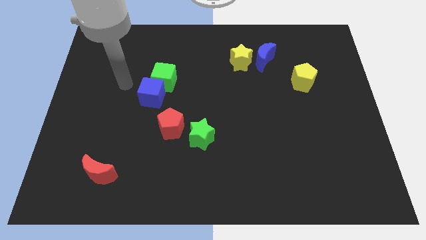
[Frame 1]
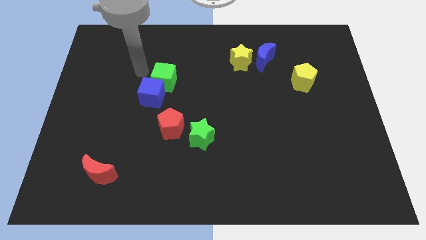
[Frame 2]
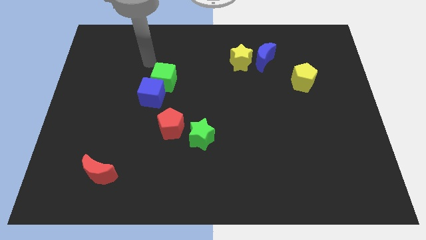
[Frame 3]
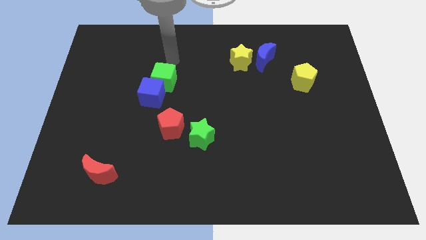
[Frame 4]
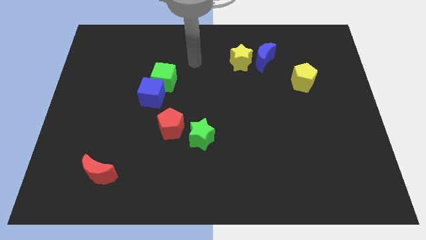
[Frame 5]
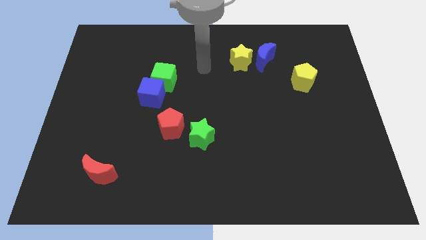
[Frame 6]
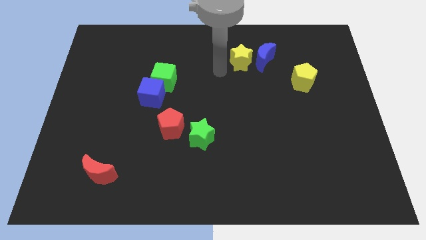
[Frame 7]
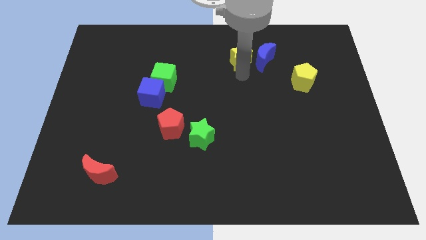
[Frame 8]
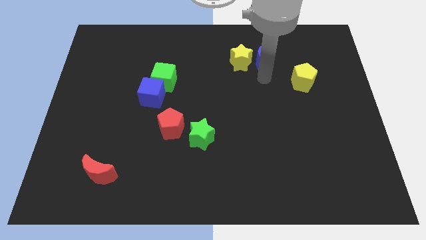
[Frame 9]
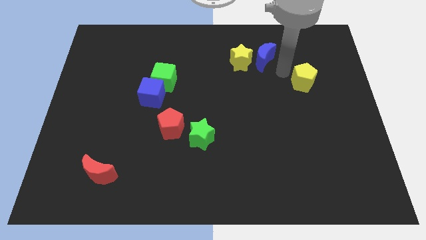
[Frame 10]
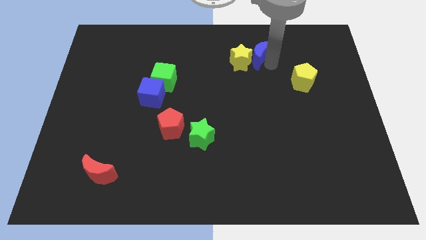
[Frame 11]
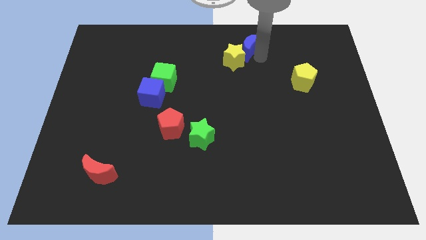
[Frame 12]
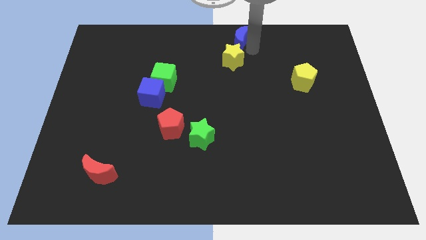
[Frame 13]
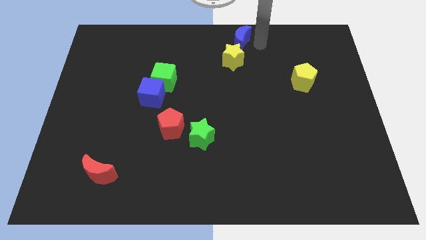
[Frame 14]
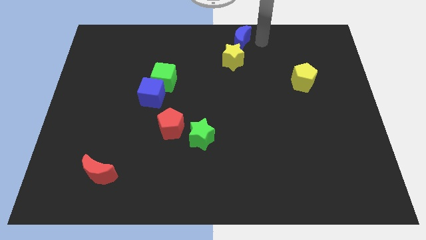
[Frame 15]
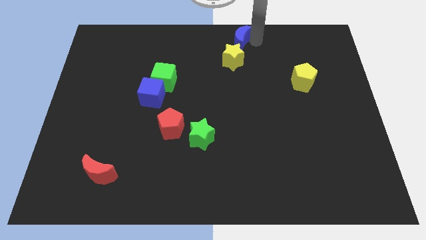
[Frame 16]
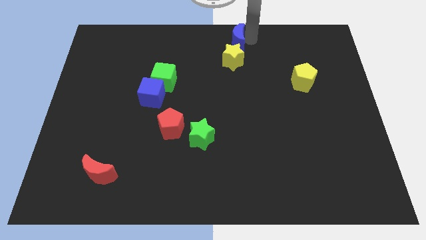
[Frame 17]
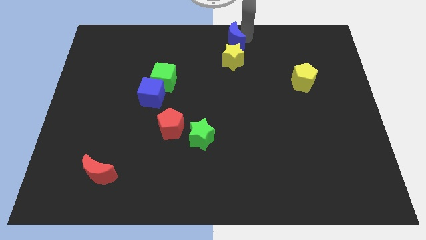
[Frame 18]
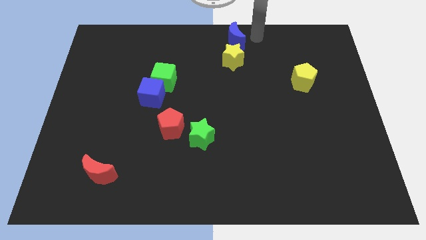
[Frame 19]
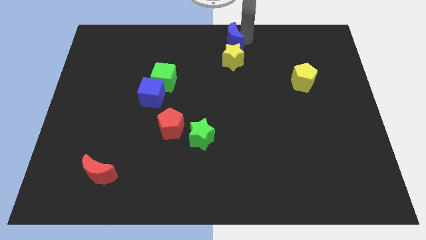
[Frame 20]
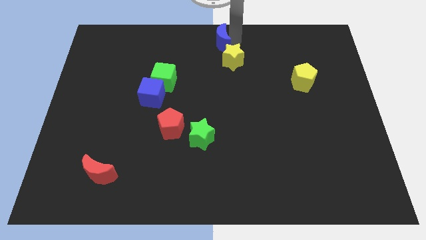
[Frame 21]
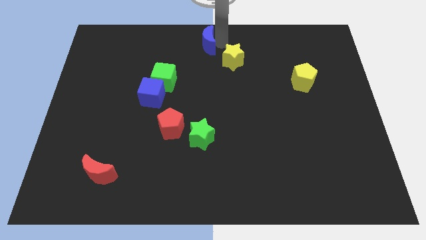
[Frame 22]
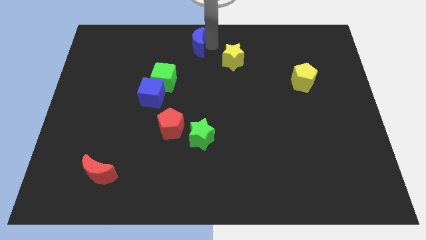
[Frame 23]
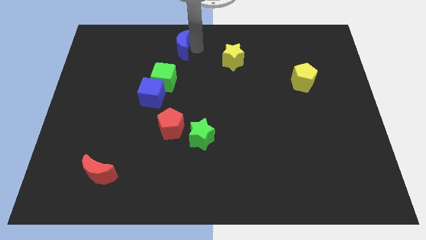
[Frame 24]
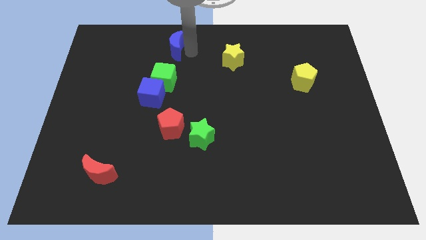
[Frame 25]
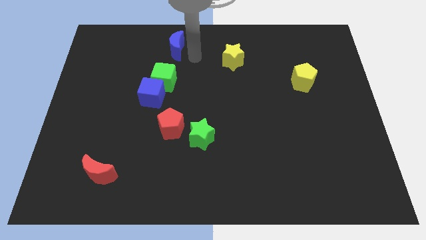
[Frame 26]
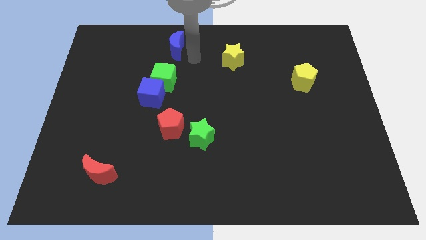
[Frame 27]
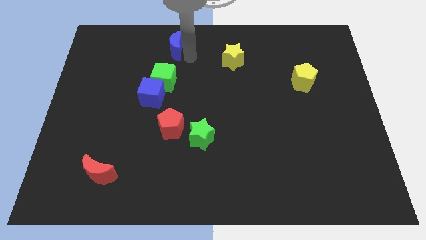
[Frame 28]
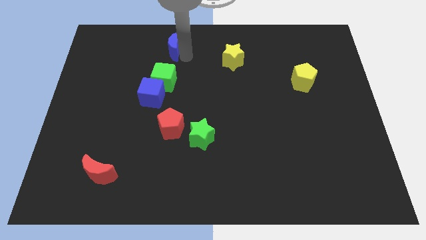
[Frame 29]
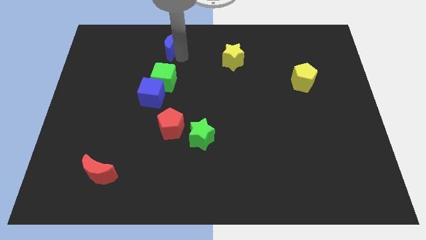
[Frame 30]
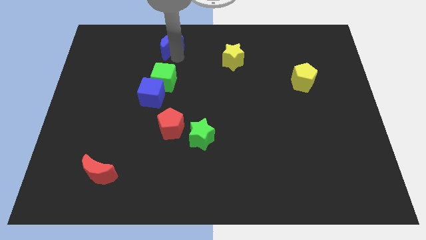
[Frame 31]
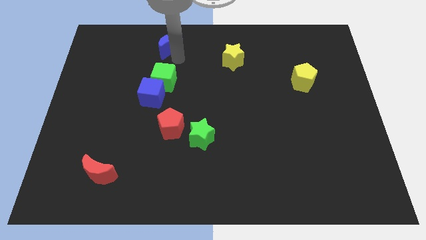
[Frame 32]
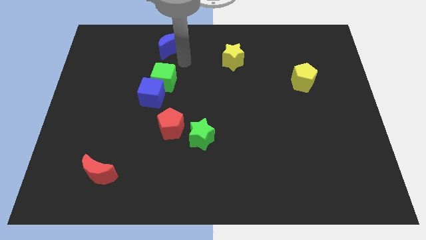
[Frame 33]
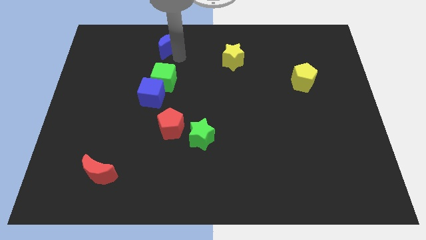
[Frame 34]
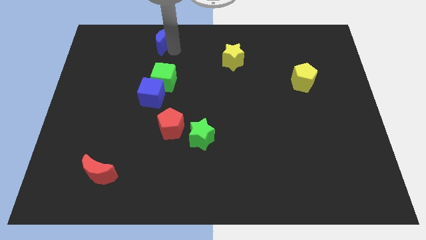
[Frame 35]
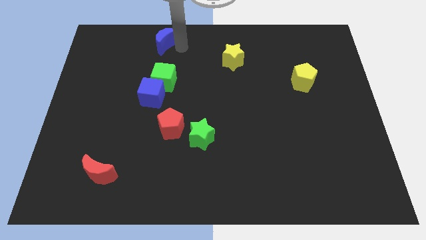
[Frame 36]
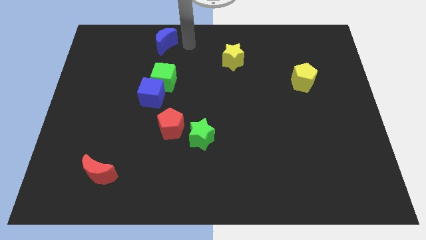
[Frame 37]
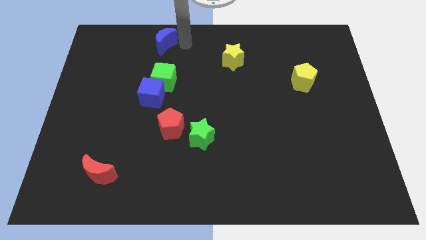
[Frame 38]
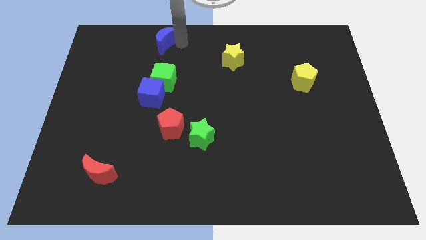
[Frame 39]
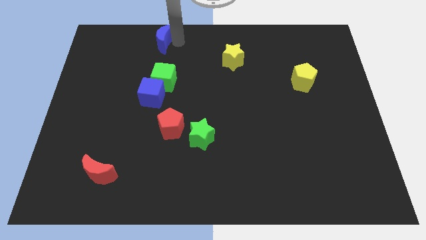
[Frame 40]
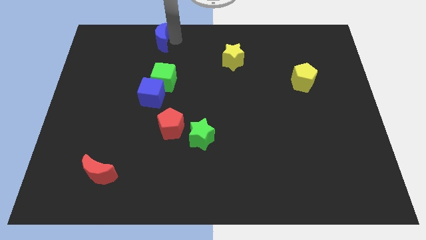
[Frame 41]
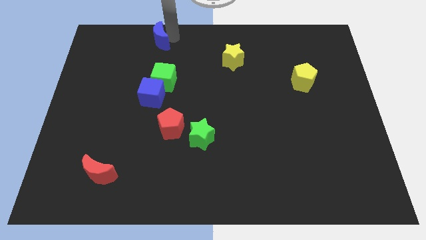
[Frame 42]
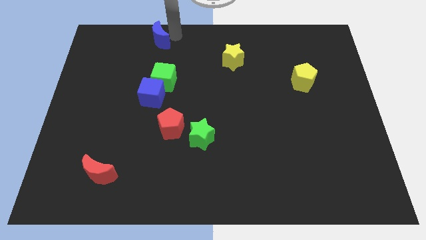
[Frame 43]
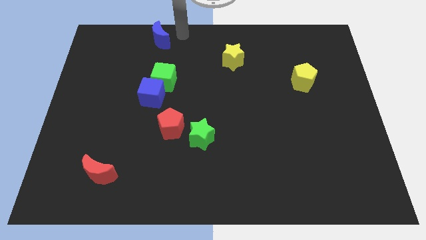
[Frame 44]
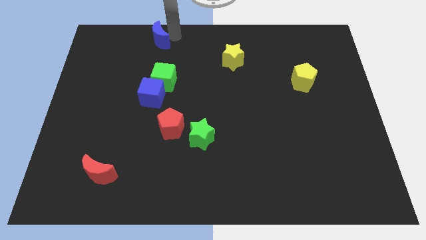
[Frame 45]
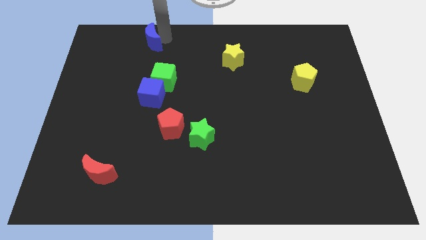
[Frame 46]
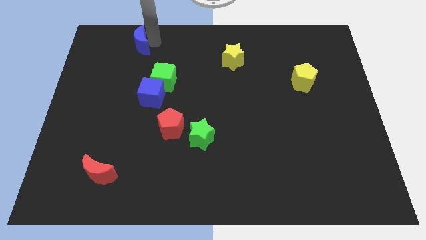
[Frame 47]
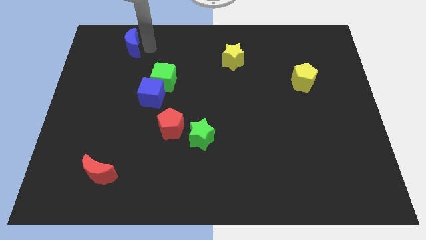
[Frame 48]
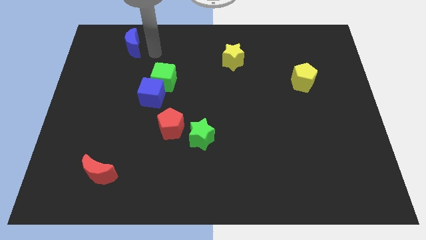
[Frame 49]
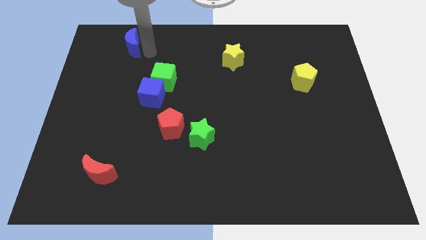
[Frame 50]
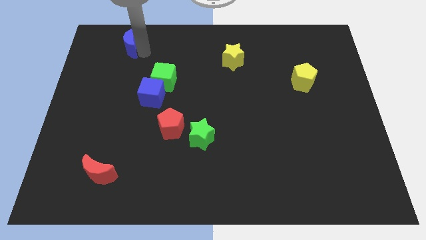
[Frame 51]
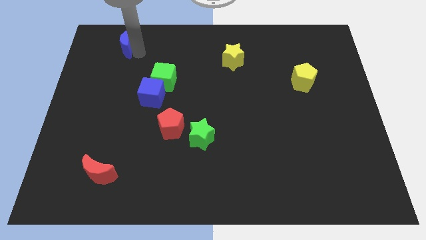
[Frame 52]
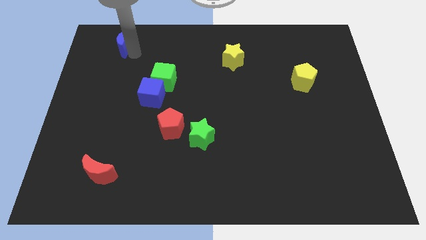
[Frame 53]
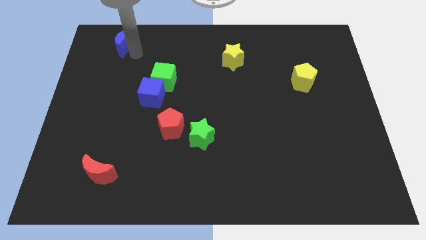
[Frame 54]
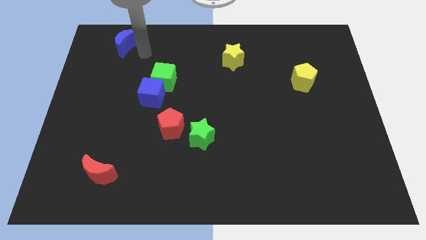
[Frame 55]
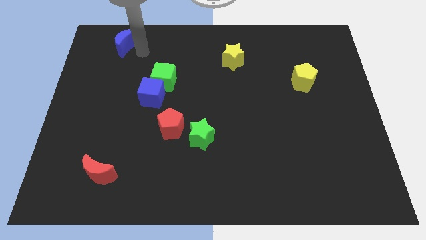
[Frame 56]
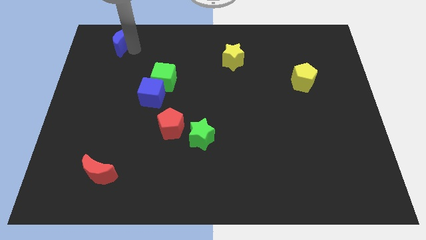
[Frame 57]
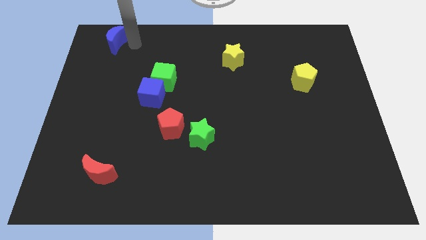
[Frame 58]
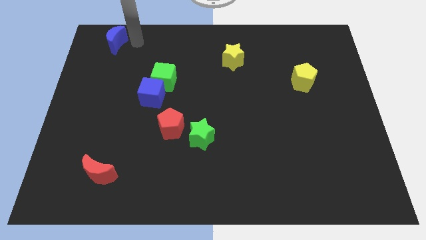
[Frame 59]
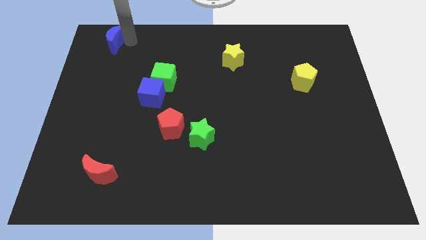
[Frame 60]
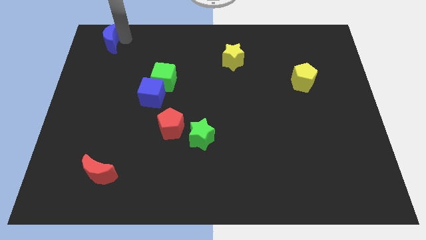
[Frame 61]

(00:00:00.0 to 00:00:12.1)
put the blue moon to the top left corner

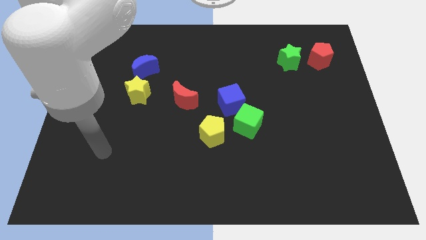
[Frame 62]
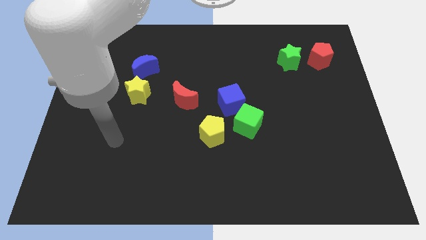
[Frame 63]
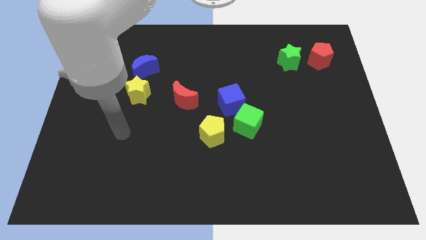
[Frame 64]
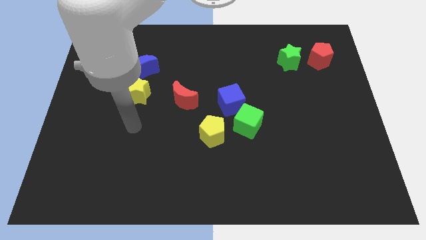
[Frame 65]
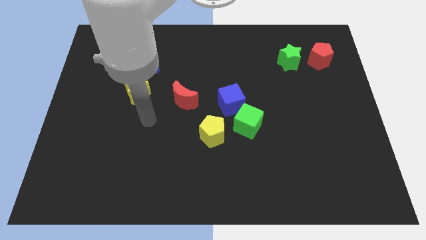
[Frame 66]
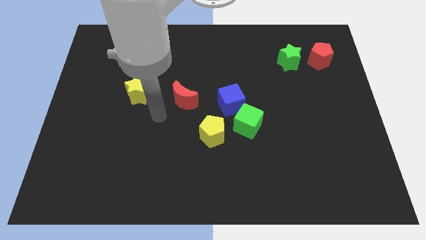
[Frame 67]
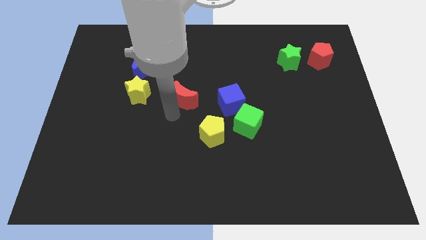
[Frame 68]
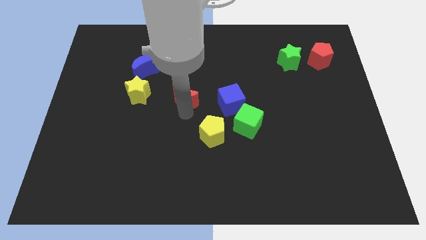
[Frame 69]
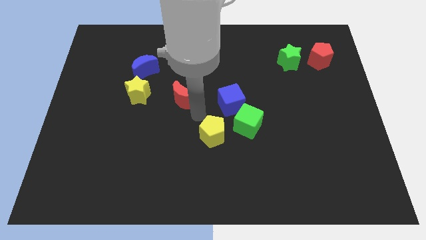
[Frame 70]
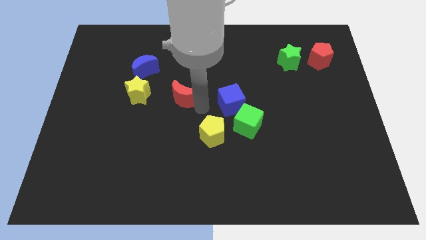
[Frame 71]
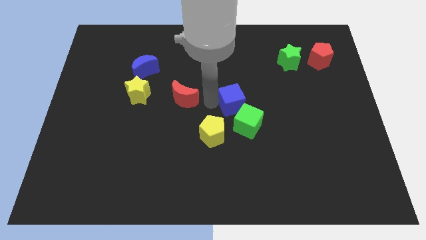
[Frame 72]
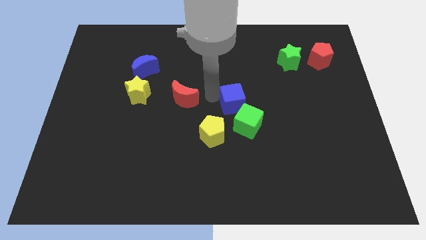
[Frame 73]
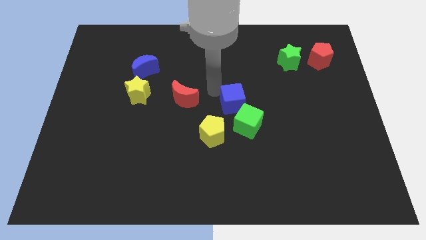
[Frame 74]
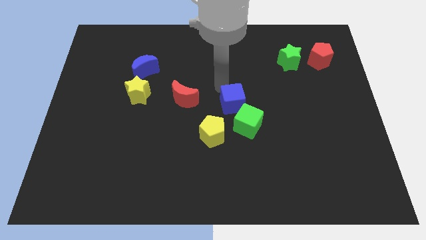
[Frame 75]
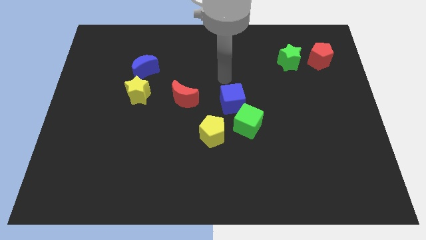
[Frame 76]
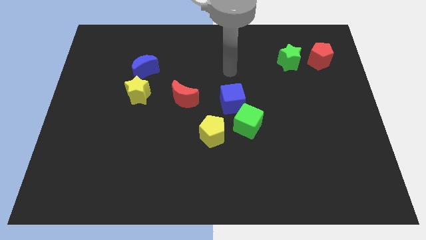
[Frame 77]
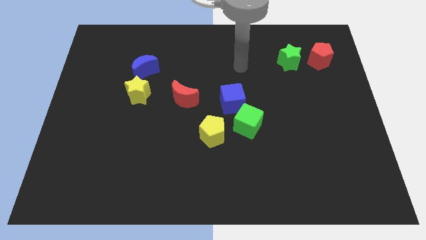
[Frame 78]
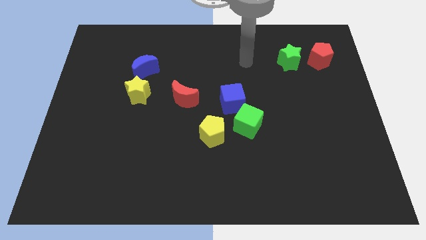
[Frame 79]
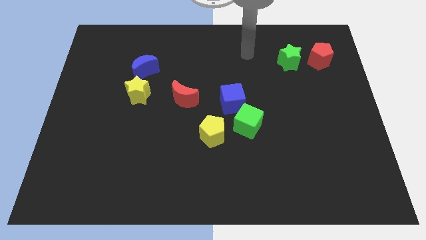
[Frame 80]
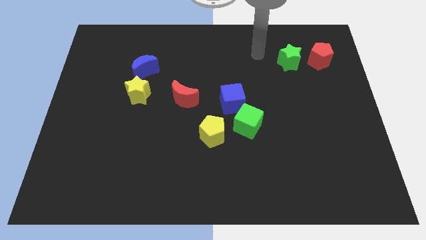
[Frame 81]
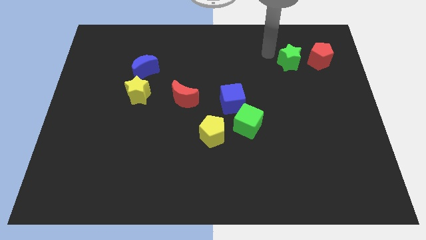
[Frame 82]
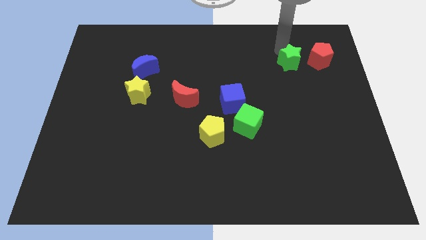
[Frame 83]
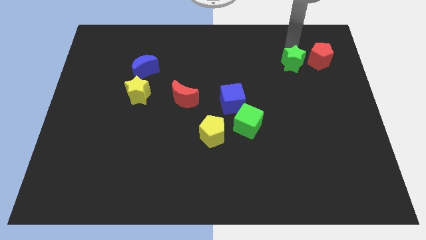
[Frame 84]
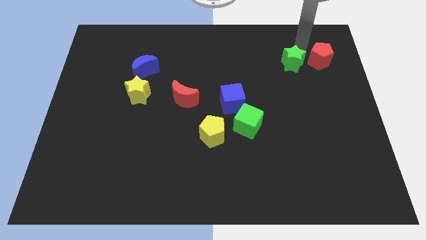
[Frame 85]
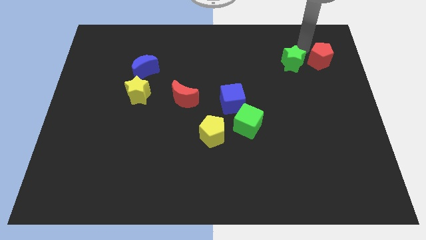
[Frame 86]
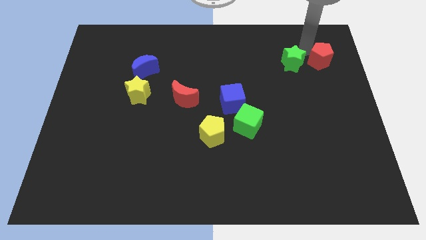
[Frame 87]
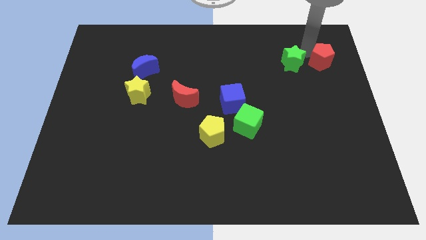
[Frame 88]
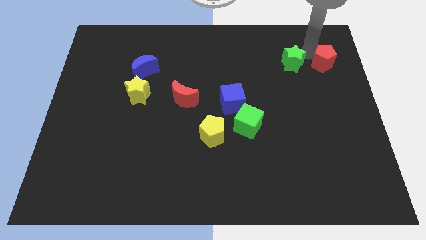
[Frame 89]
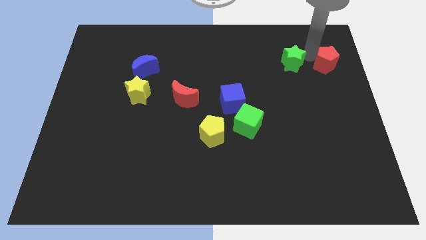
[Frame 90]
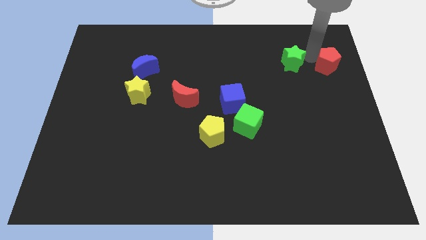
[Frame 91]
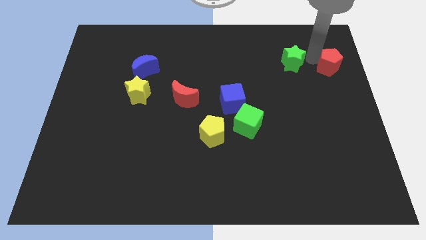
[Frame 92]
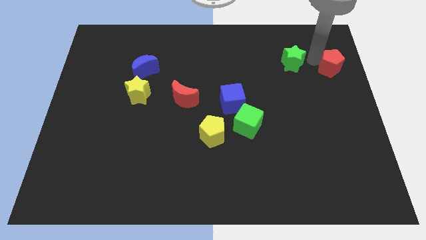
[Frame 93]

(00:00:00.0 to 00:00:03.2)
put the red pentagon to the right side of the board
